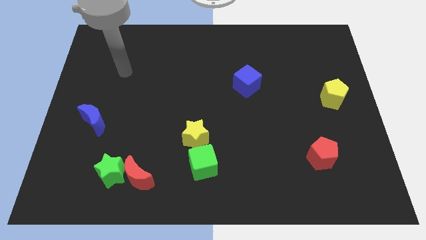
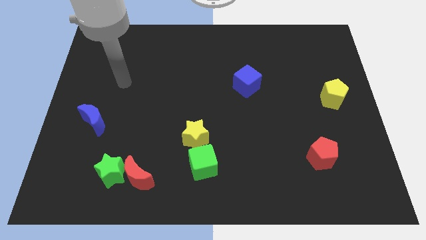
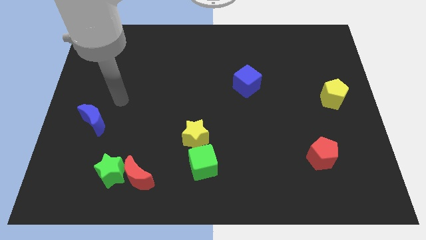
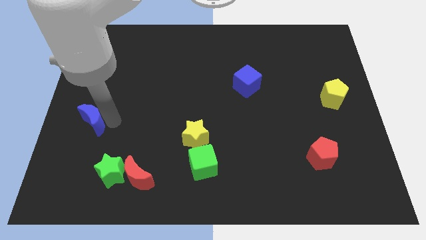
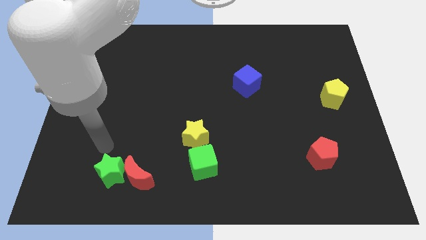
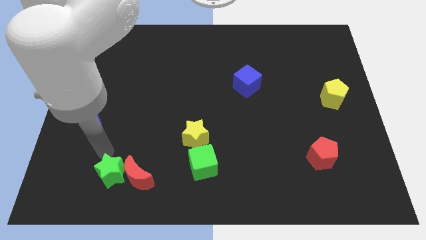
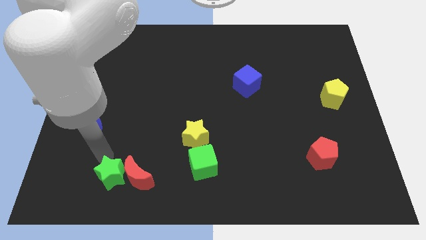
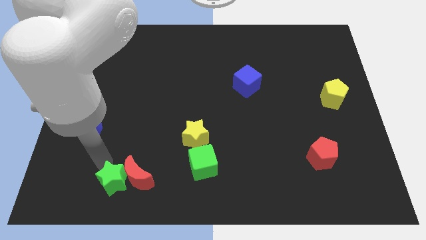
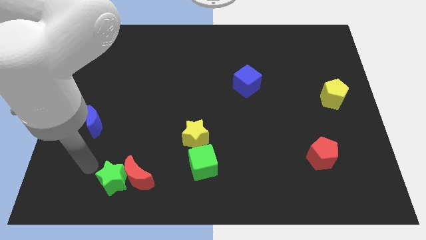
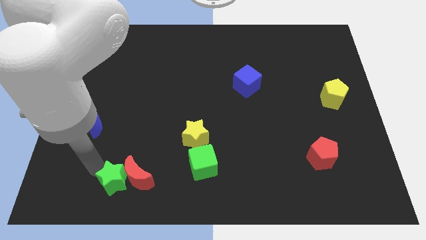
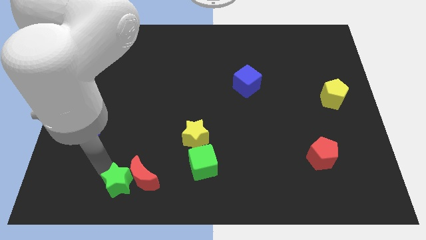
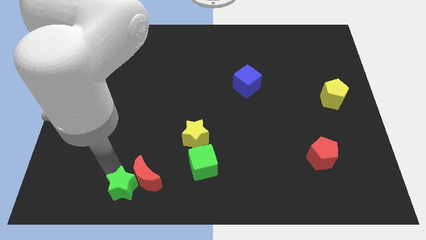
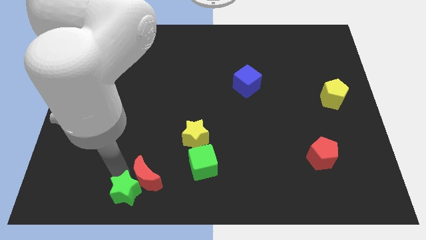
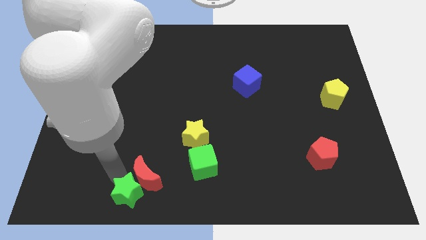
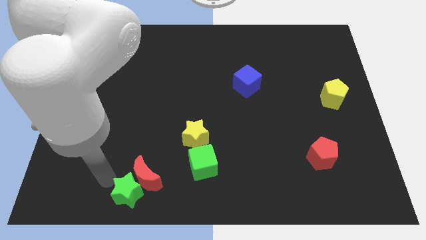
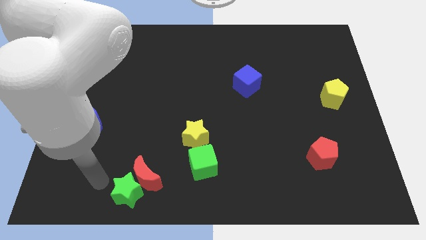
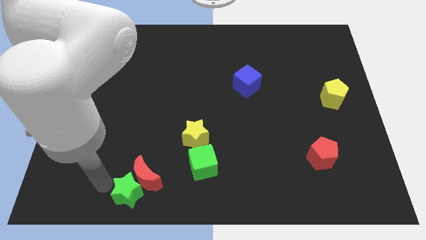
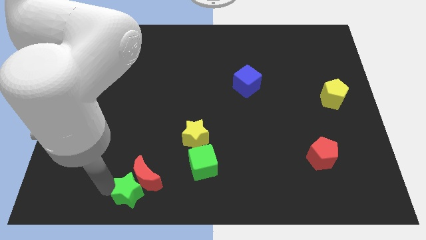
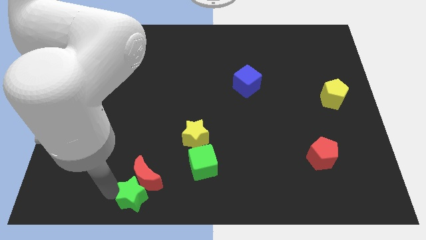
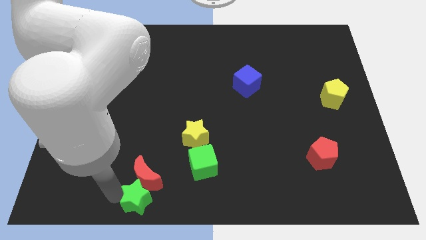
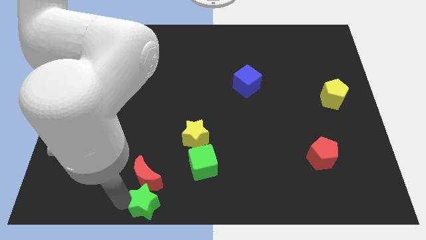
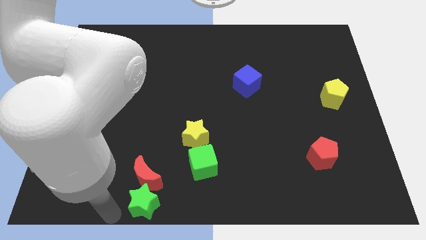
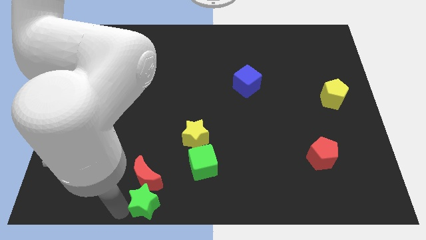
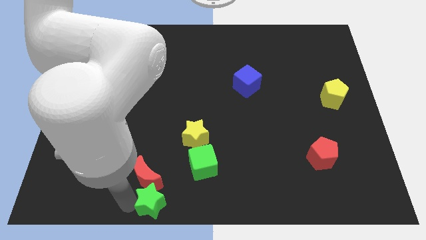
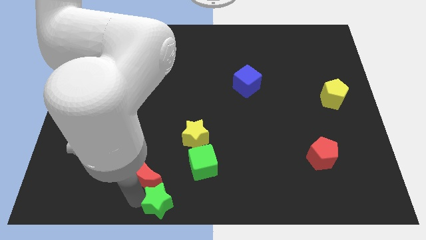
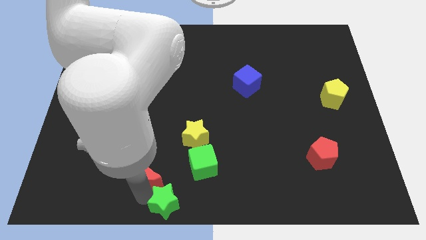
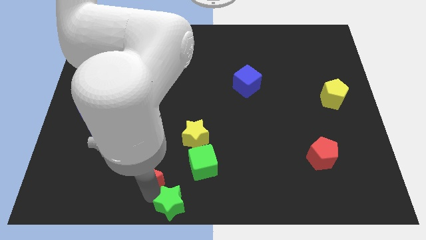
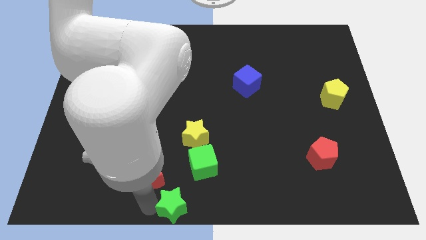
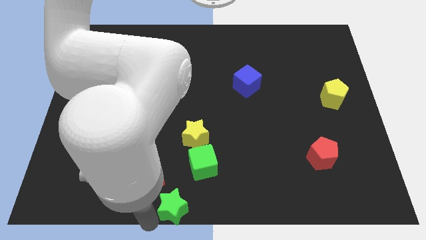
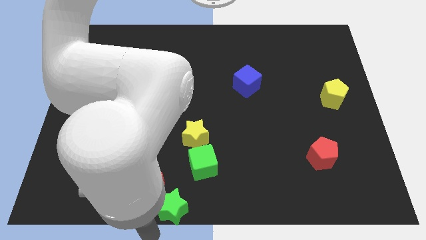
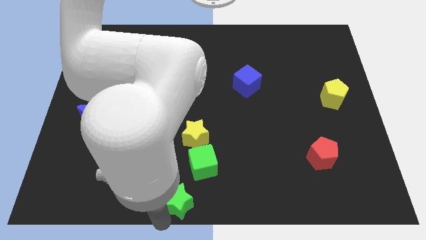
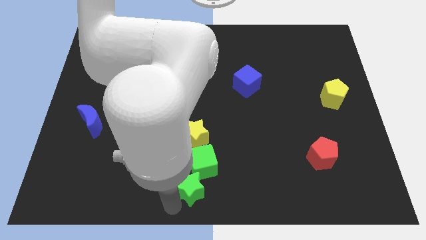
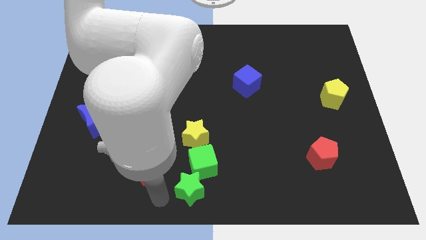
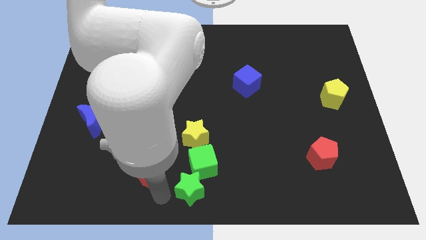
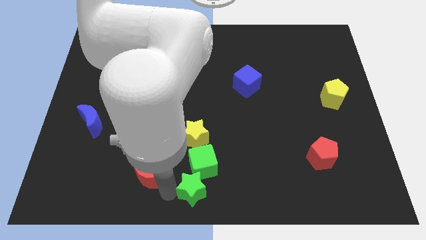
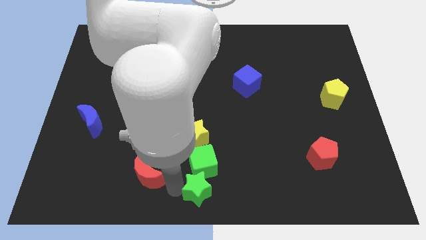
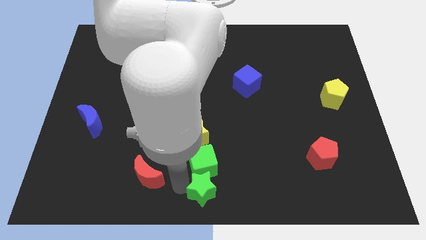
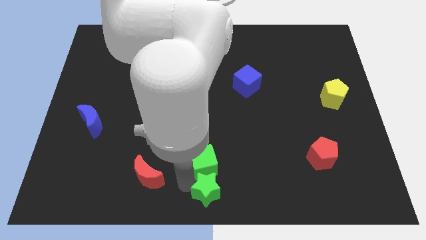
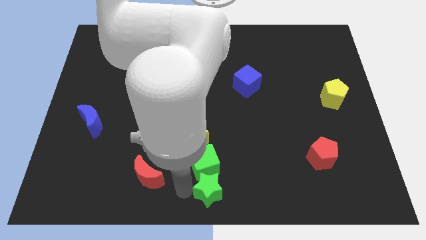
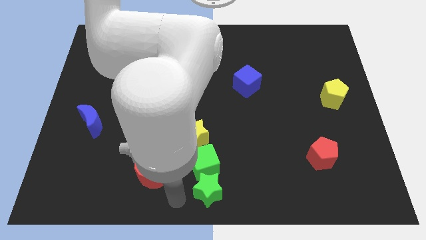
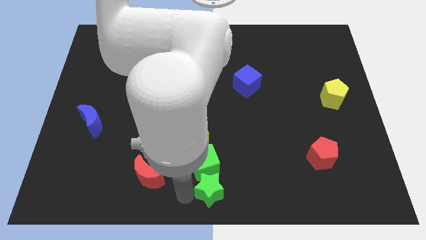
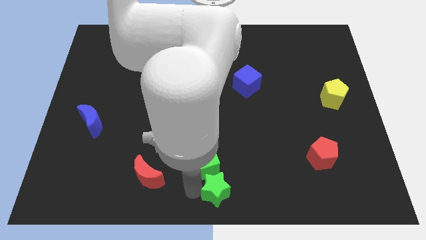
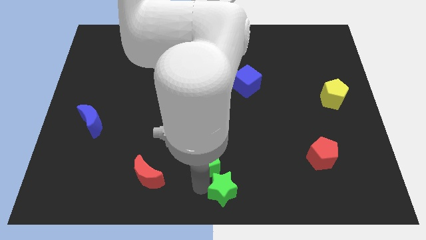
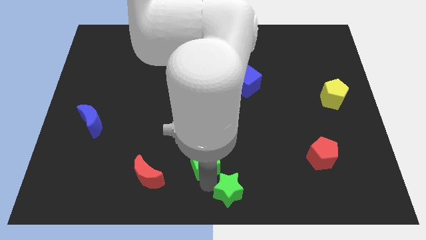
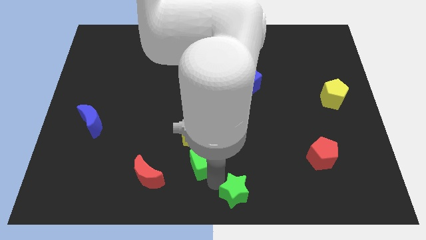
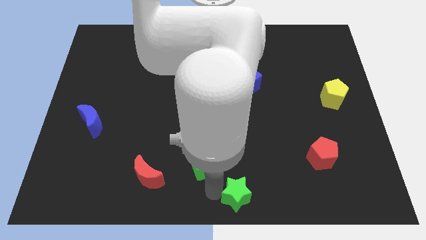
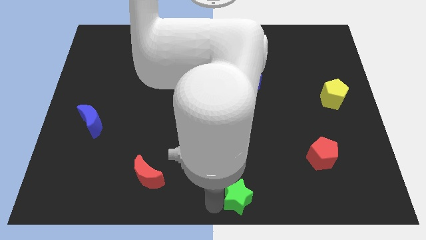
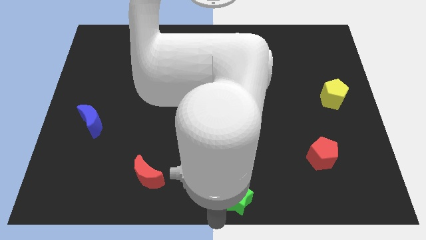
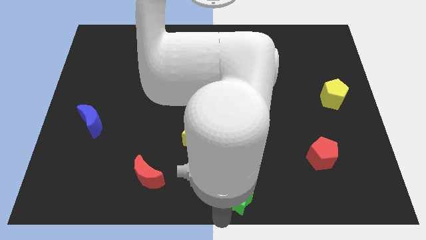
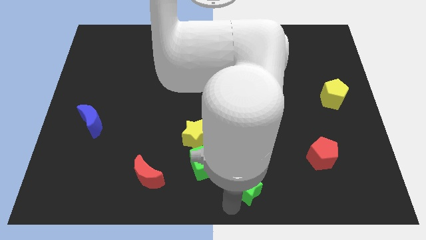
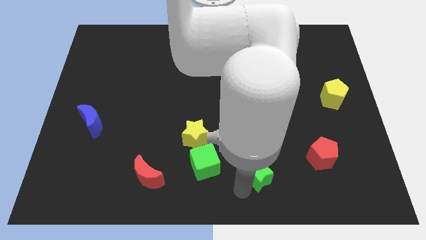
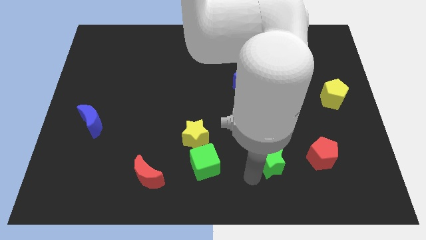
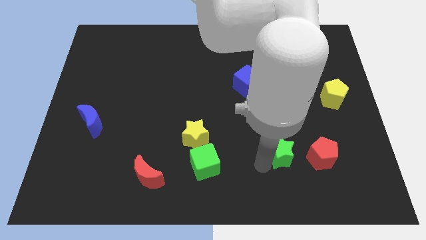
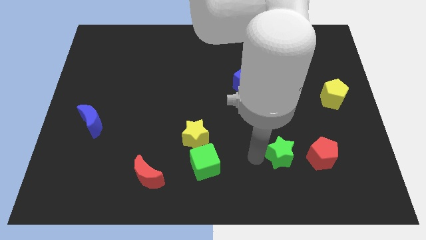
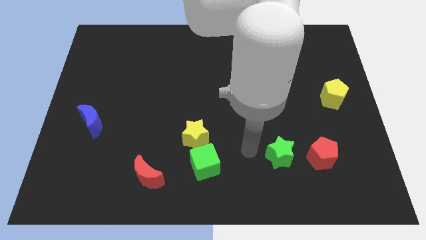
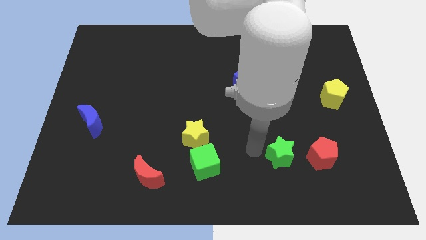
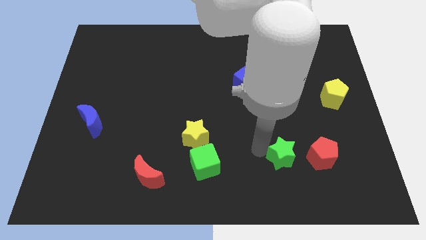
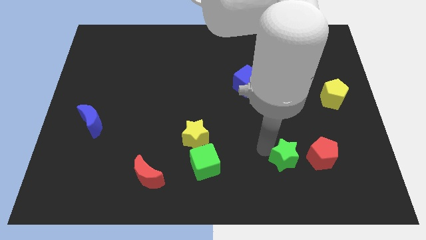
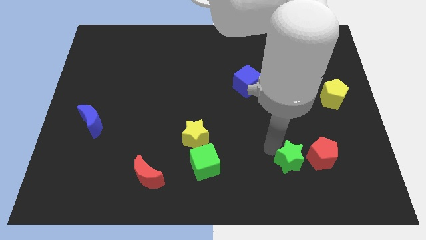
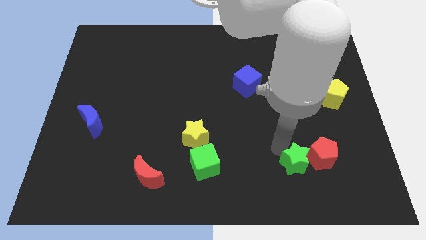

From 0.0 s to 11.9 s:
put the green star towards the red pentagon

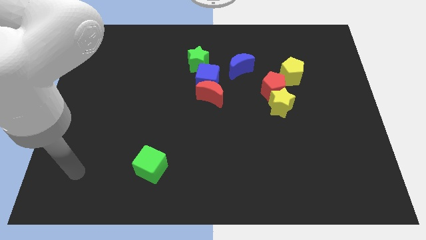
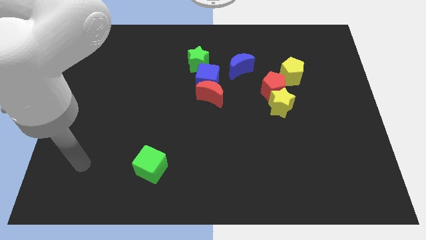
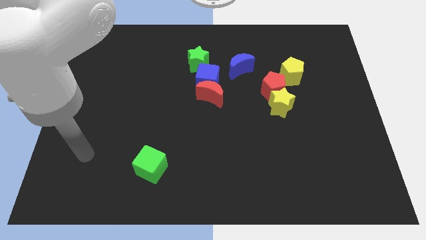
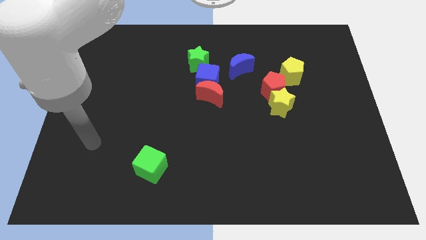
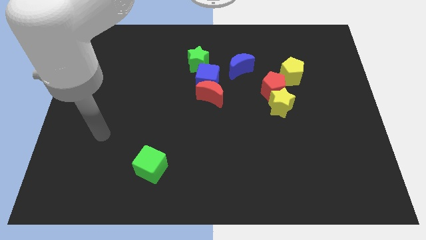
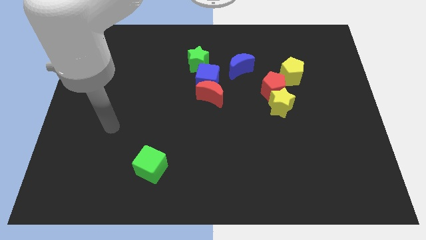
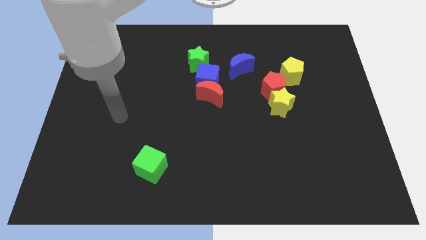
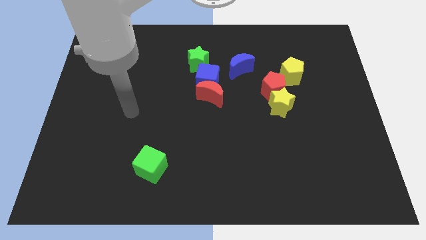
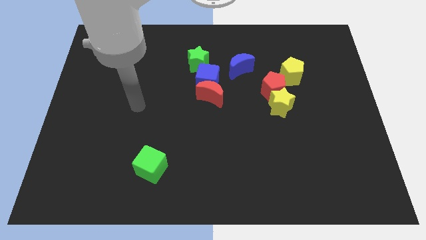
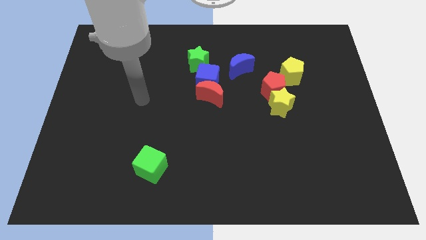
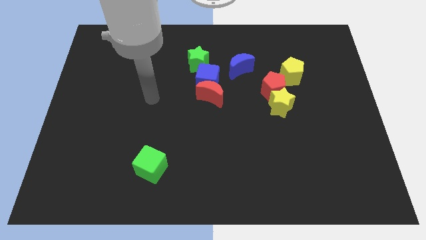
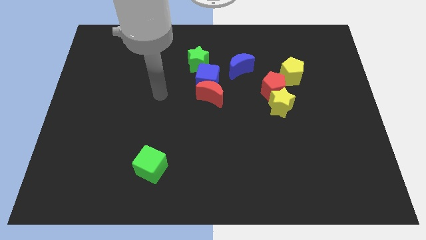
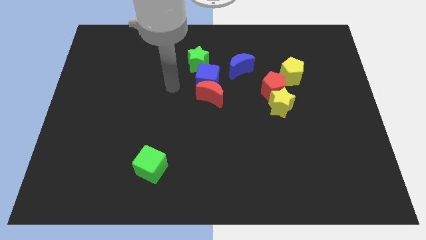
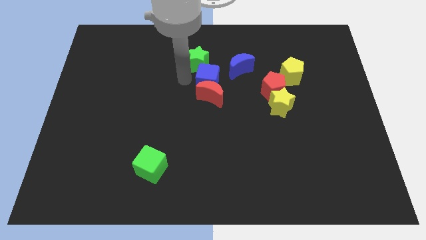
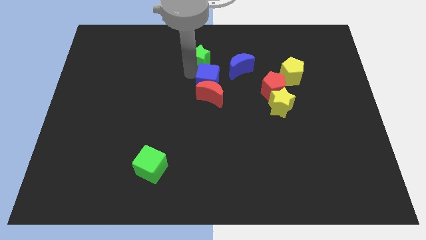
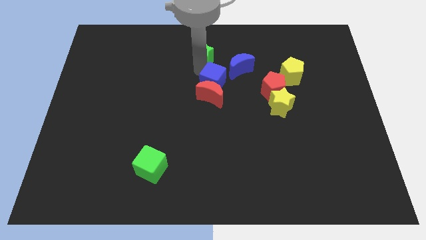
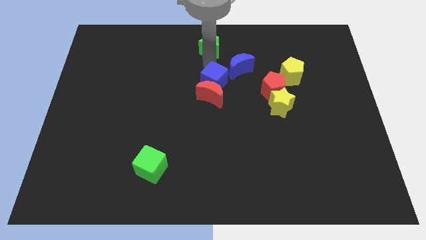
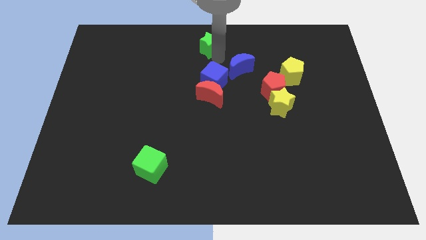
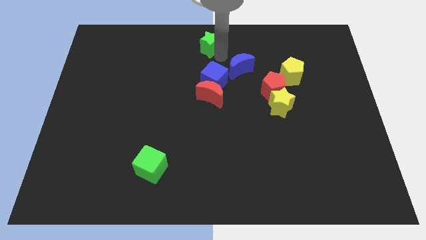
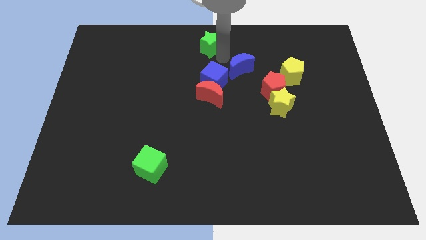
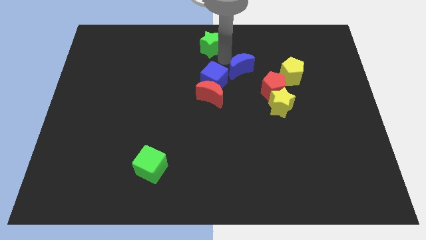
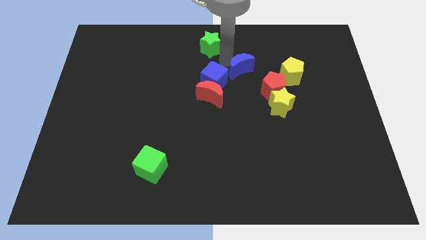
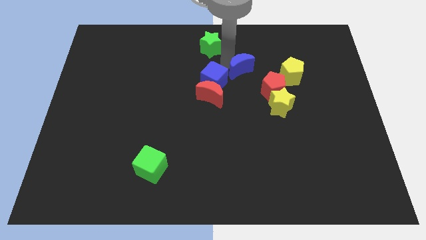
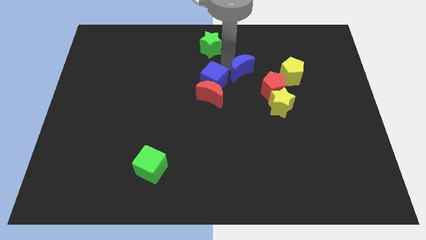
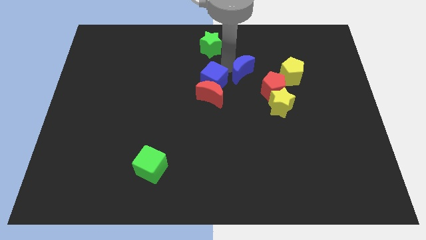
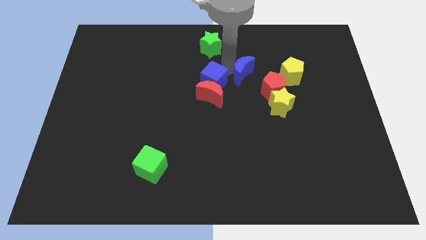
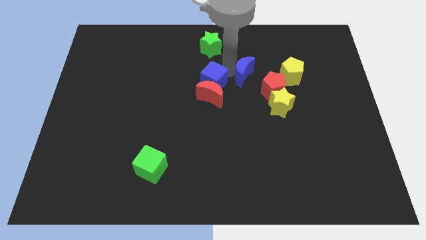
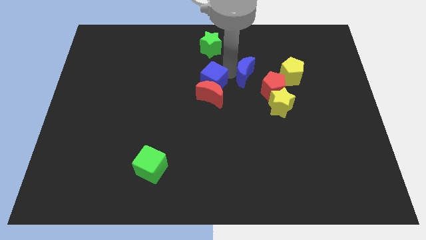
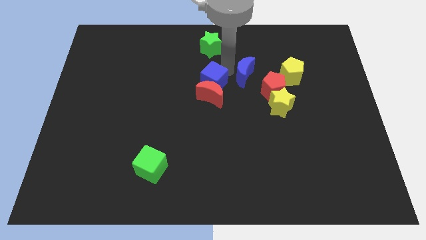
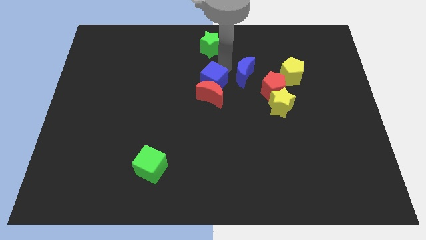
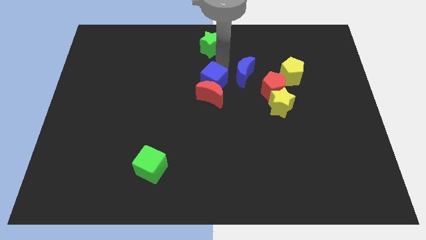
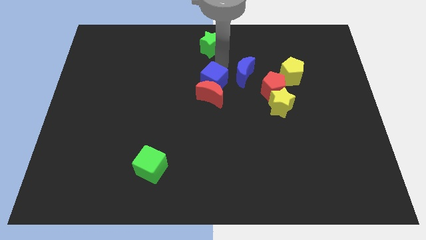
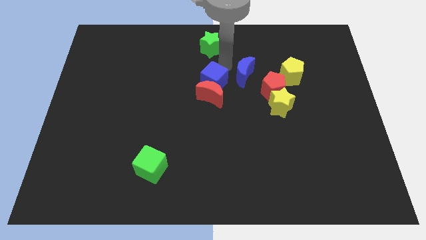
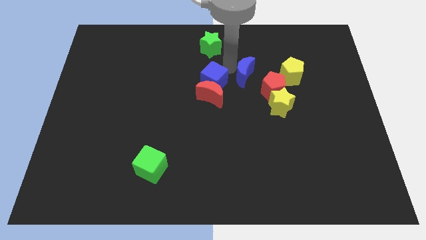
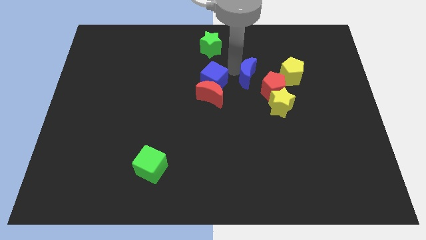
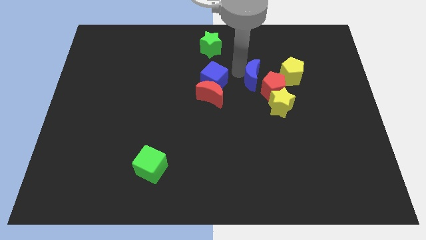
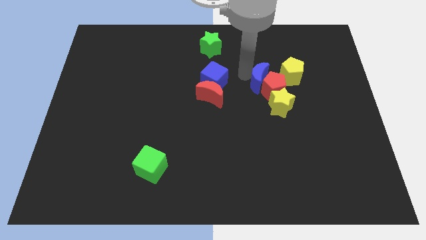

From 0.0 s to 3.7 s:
push the blue moon towards the red pentagon
